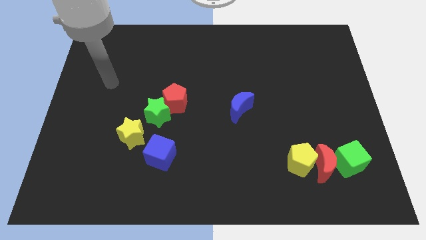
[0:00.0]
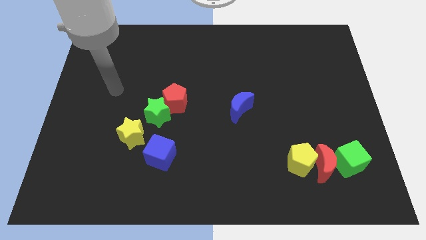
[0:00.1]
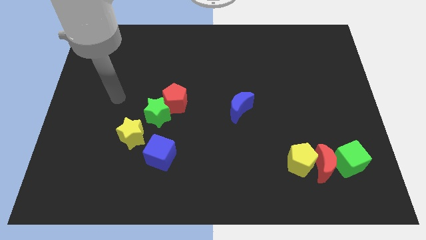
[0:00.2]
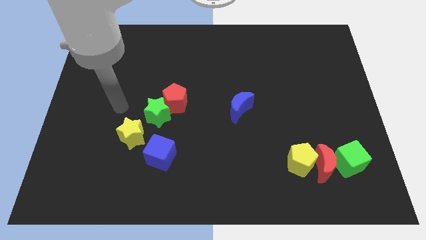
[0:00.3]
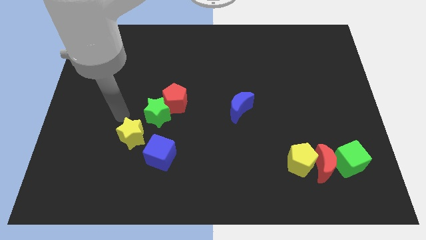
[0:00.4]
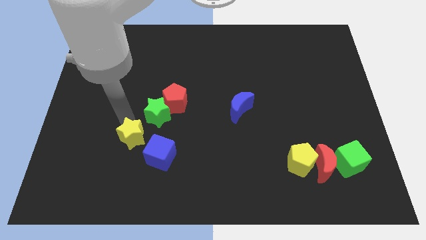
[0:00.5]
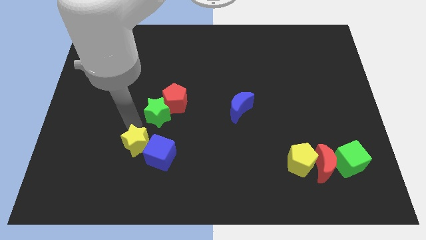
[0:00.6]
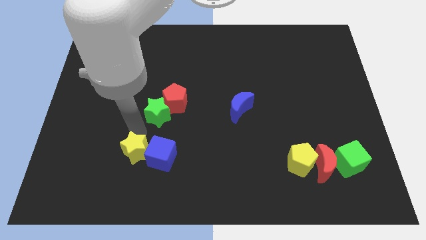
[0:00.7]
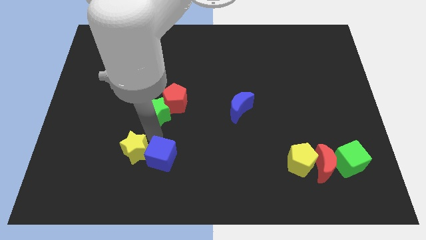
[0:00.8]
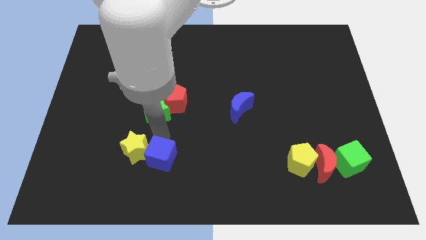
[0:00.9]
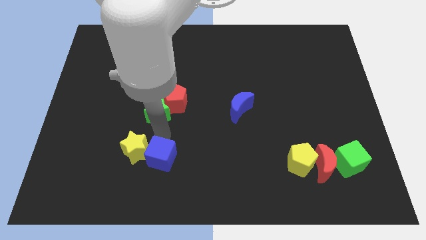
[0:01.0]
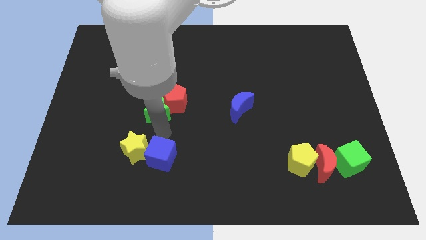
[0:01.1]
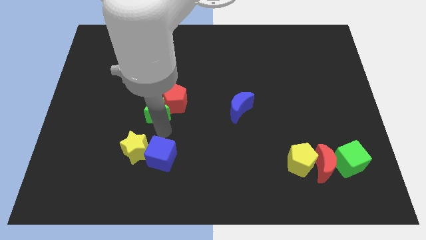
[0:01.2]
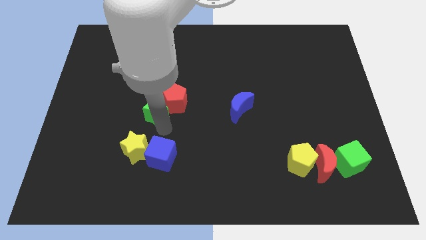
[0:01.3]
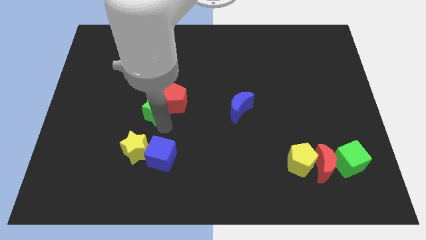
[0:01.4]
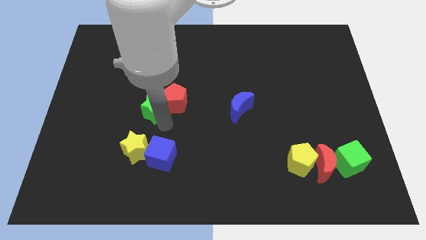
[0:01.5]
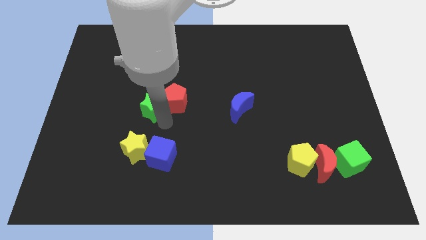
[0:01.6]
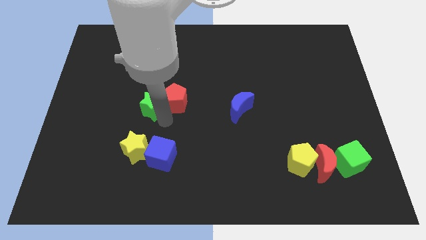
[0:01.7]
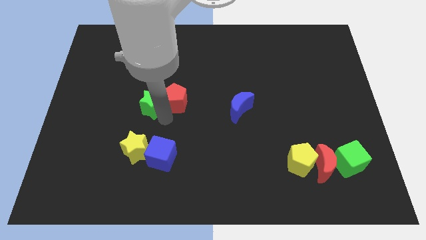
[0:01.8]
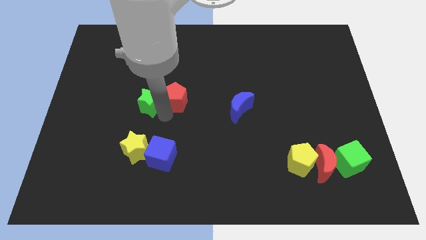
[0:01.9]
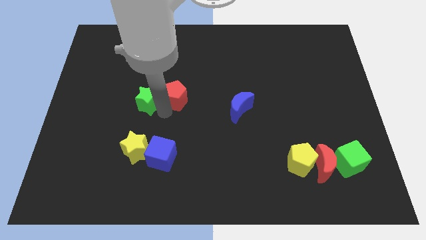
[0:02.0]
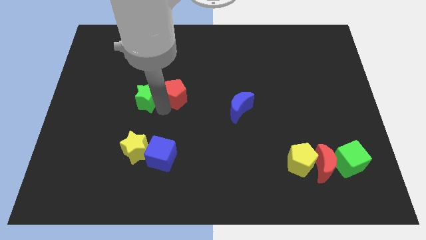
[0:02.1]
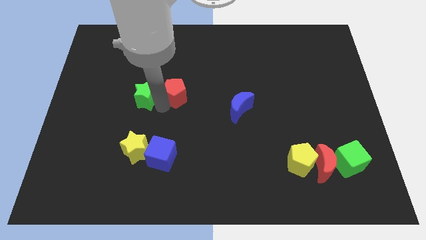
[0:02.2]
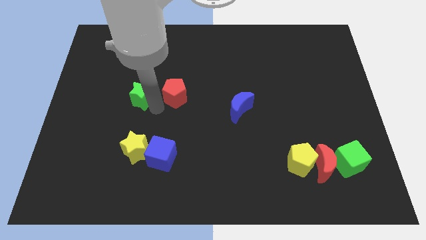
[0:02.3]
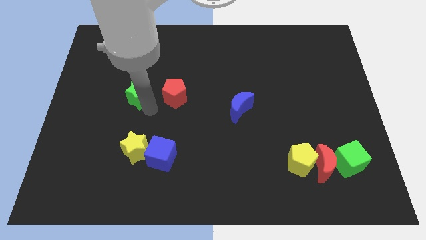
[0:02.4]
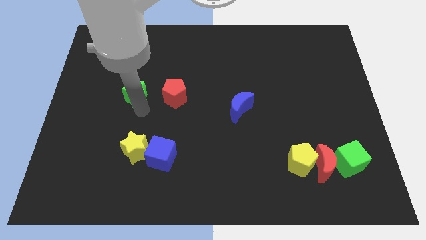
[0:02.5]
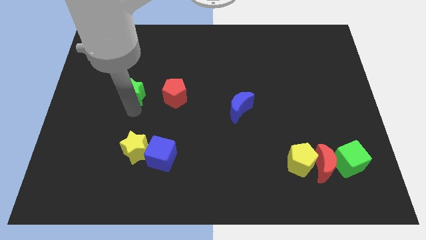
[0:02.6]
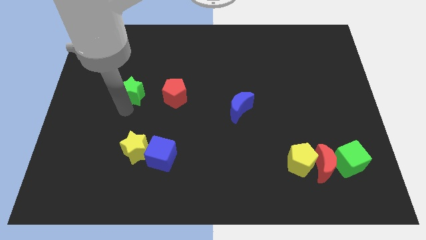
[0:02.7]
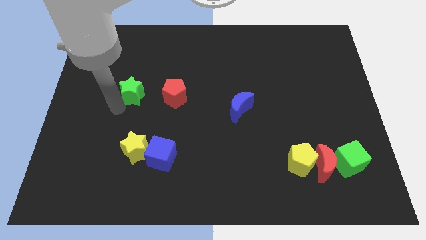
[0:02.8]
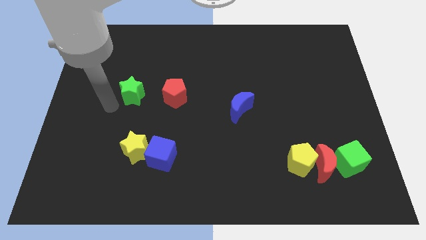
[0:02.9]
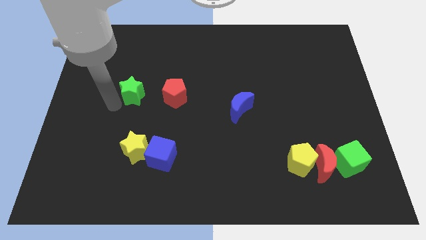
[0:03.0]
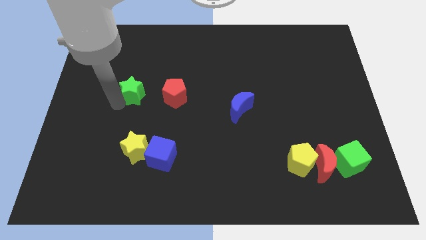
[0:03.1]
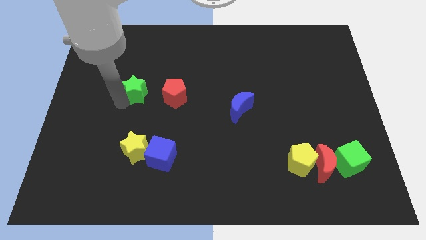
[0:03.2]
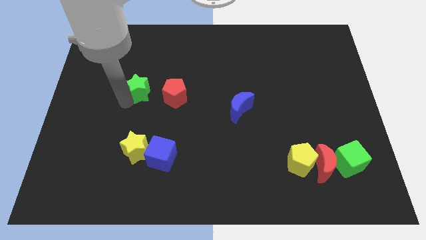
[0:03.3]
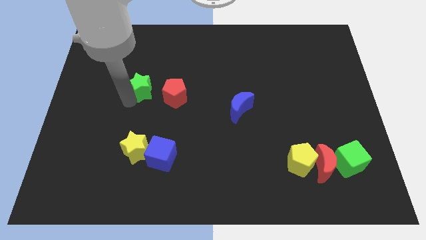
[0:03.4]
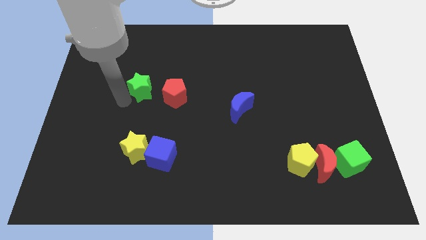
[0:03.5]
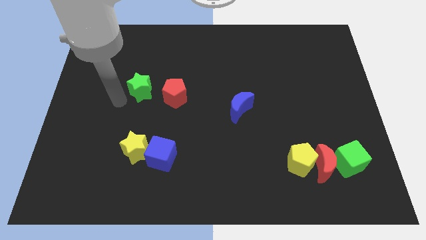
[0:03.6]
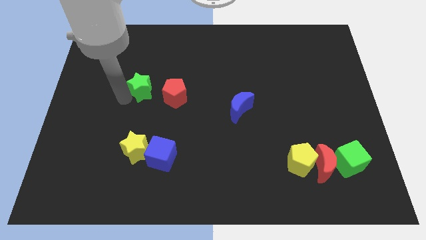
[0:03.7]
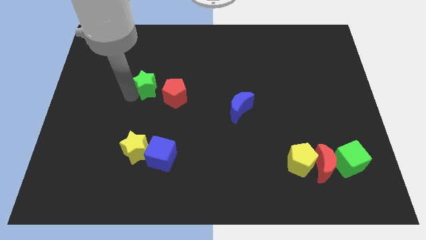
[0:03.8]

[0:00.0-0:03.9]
slightly push the green star up

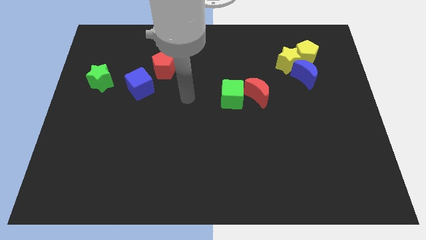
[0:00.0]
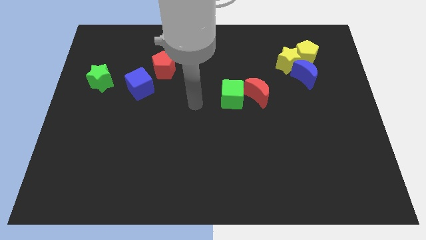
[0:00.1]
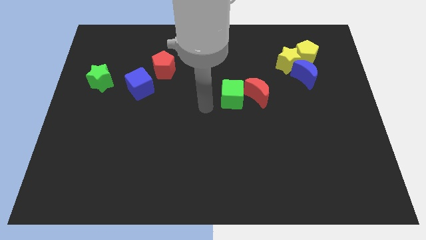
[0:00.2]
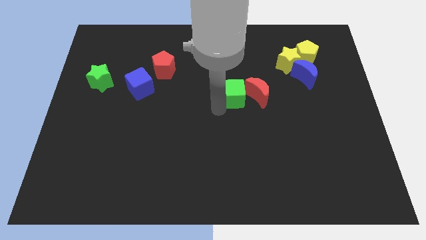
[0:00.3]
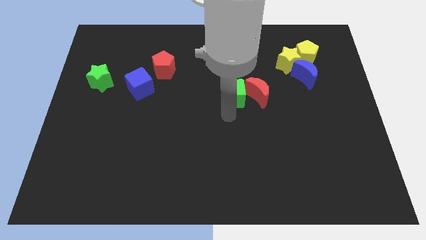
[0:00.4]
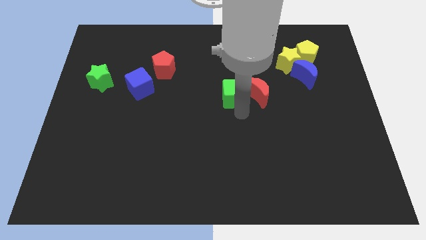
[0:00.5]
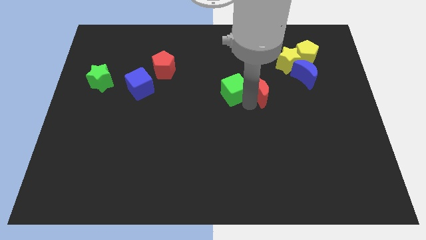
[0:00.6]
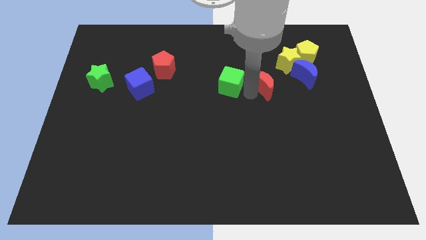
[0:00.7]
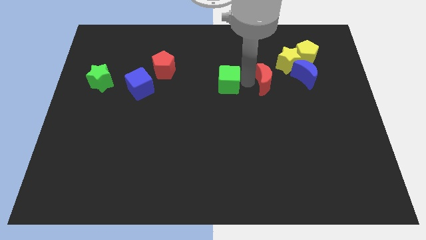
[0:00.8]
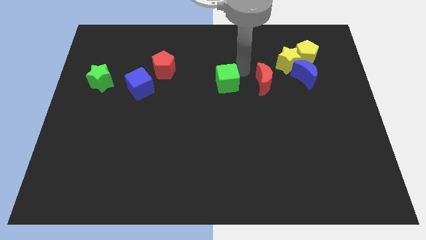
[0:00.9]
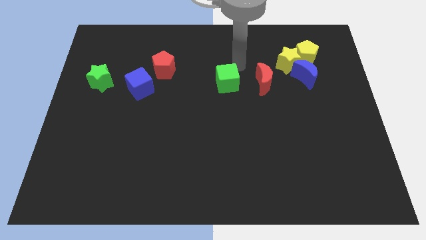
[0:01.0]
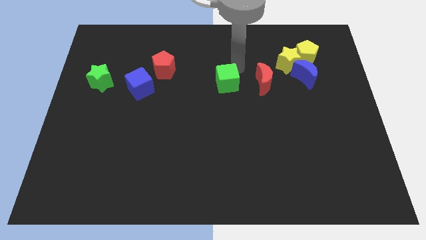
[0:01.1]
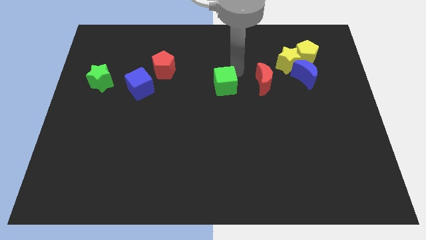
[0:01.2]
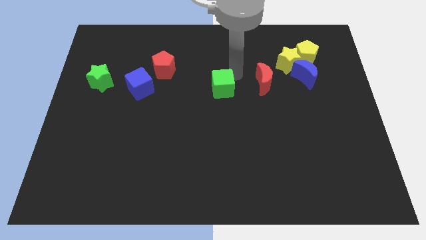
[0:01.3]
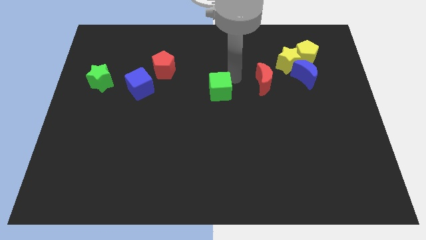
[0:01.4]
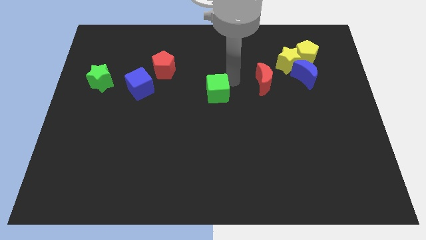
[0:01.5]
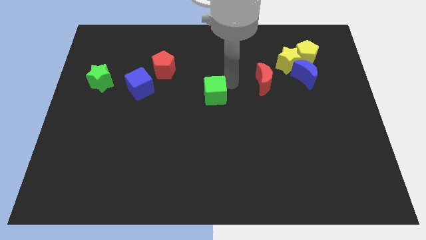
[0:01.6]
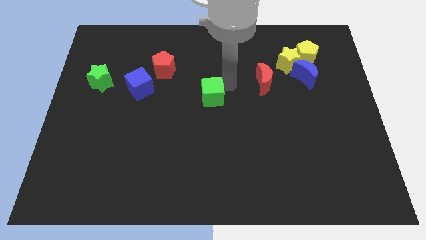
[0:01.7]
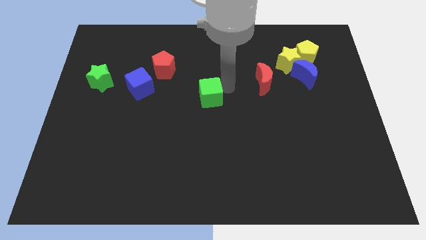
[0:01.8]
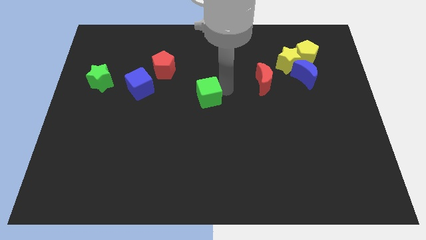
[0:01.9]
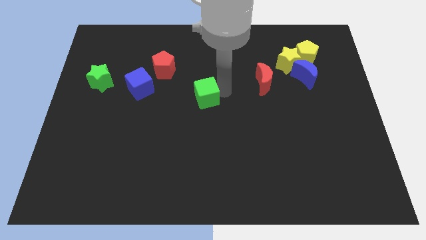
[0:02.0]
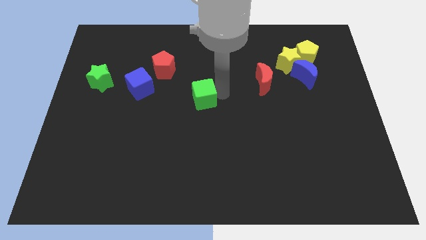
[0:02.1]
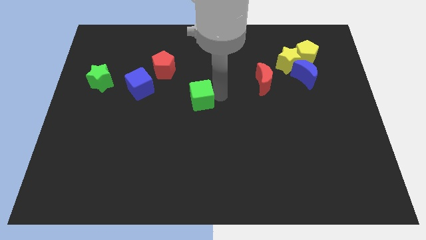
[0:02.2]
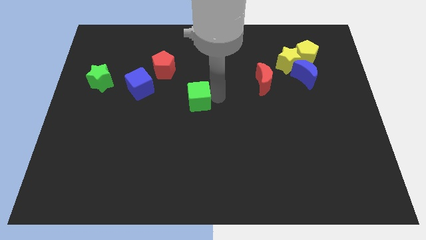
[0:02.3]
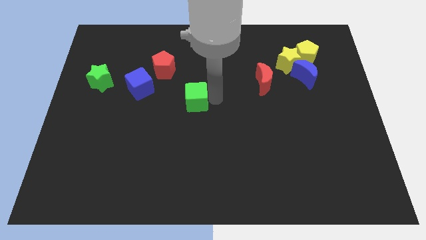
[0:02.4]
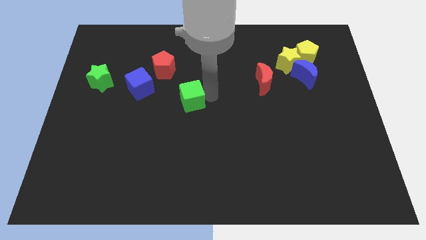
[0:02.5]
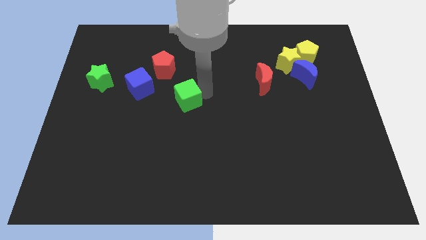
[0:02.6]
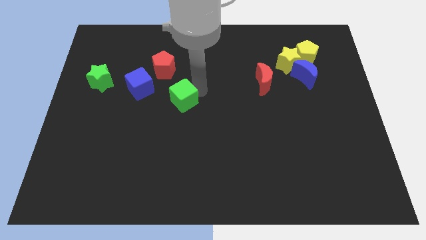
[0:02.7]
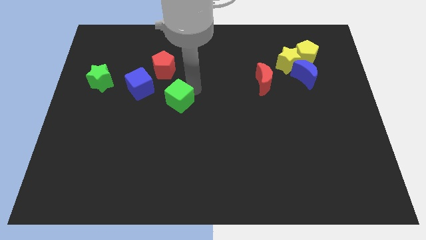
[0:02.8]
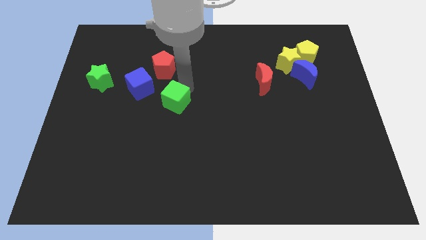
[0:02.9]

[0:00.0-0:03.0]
push the green cube down and to the left diagonally somewhat

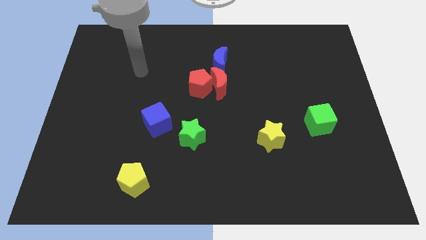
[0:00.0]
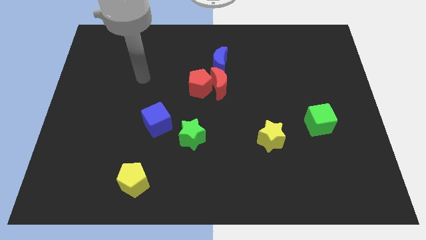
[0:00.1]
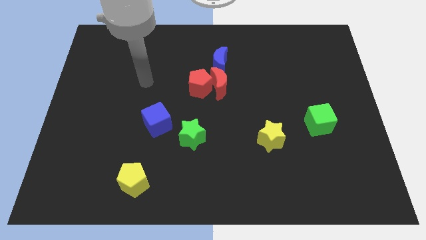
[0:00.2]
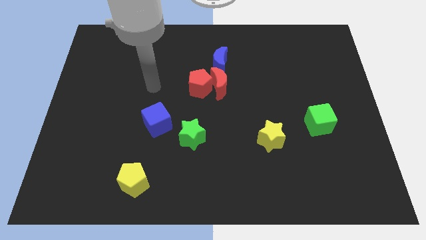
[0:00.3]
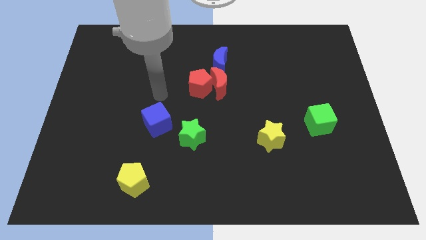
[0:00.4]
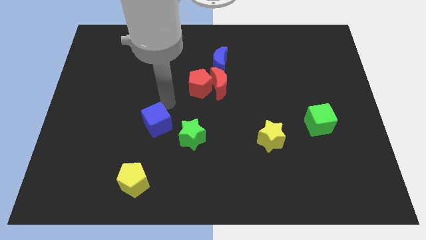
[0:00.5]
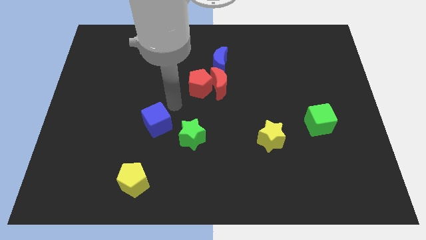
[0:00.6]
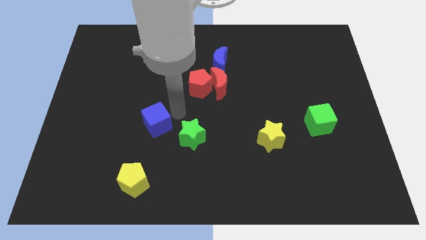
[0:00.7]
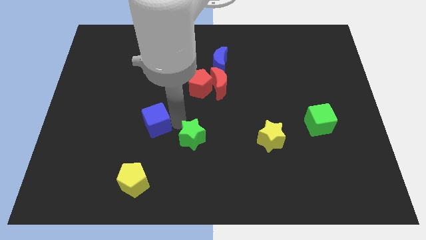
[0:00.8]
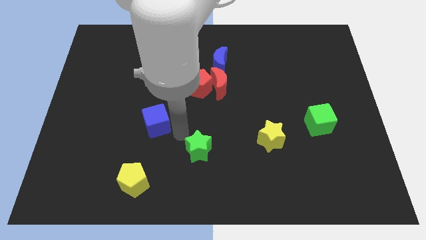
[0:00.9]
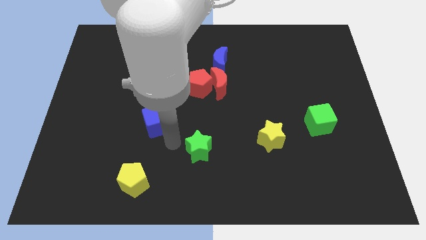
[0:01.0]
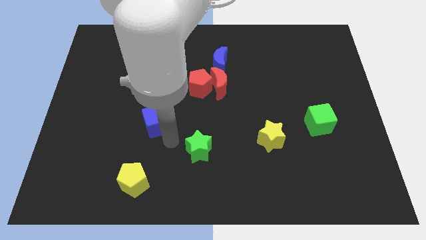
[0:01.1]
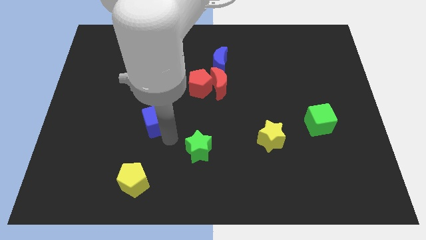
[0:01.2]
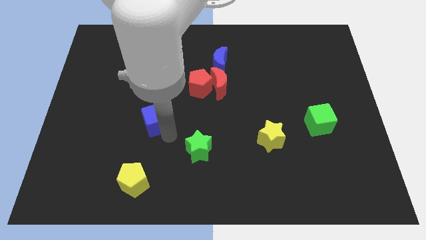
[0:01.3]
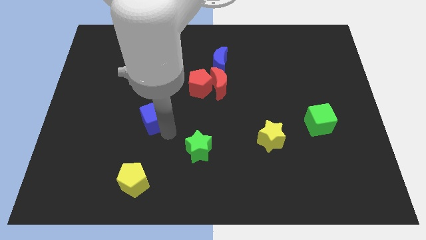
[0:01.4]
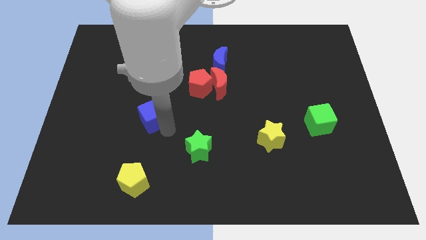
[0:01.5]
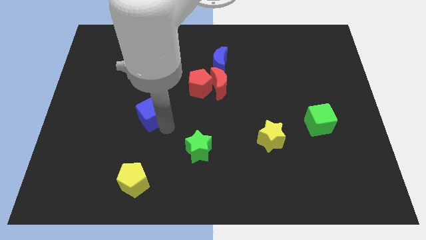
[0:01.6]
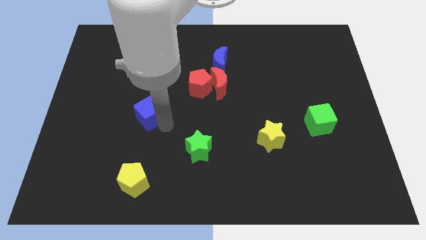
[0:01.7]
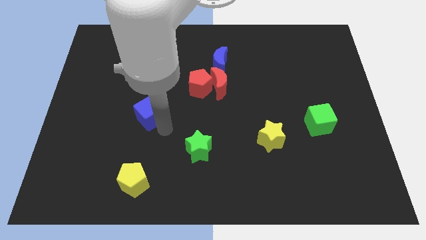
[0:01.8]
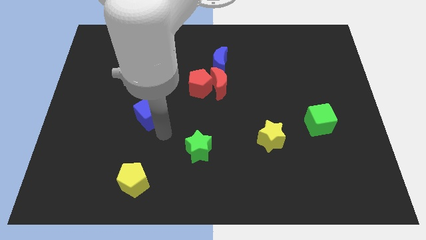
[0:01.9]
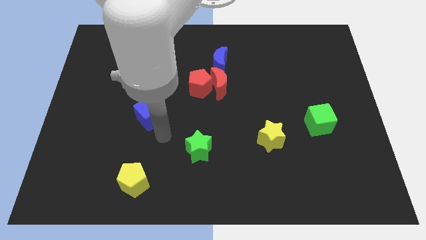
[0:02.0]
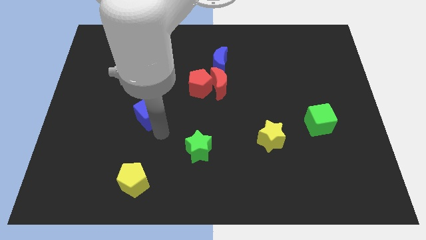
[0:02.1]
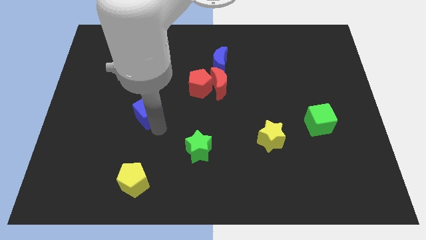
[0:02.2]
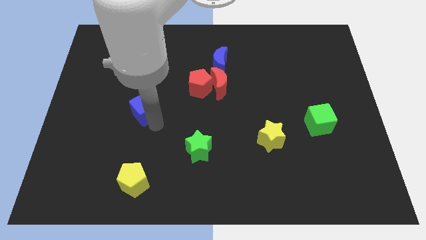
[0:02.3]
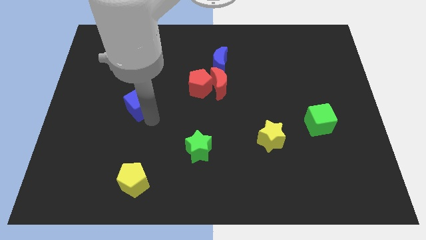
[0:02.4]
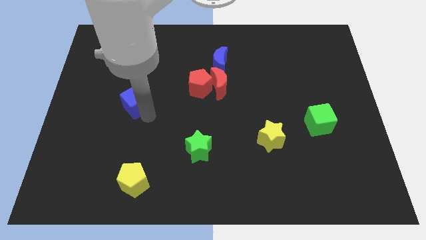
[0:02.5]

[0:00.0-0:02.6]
push the blue cube somewhat upwards and to the left diagonally
